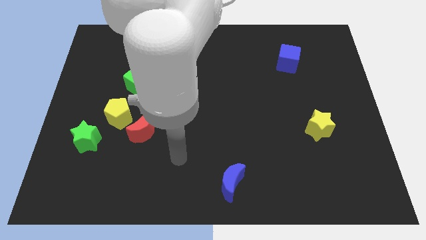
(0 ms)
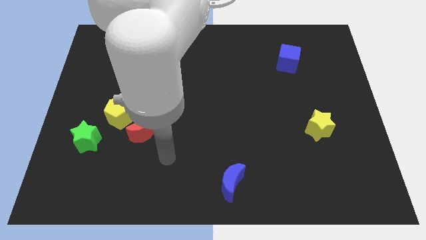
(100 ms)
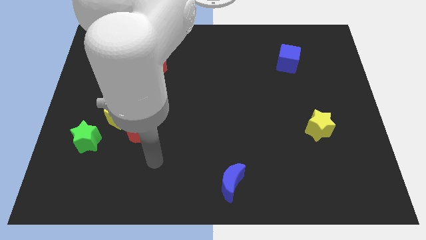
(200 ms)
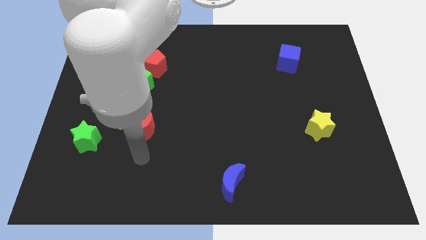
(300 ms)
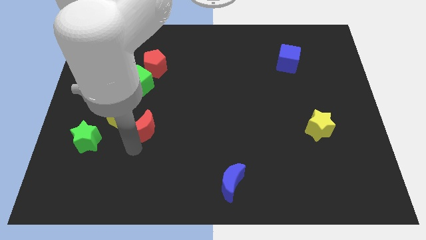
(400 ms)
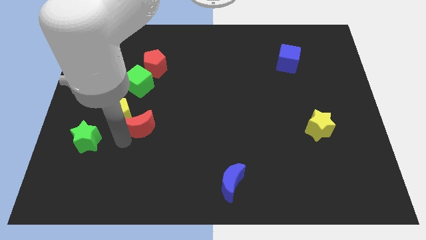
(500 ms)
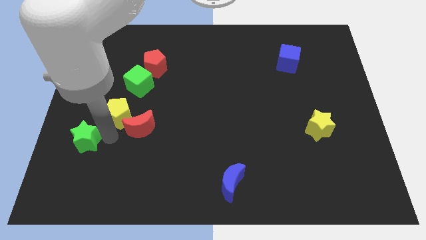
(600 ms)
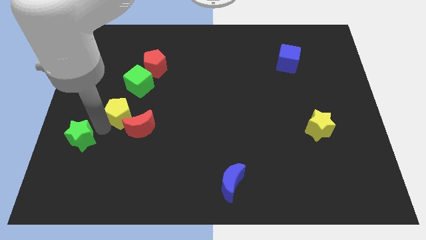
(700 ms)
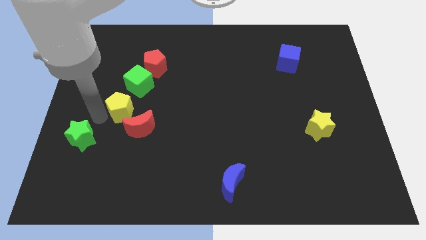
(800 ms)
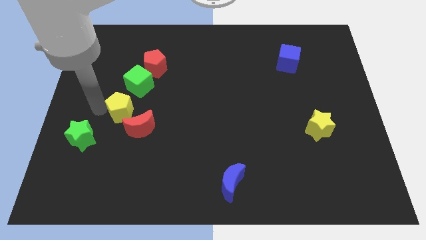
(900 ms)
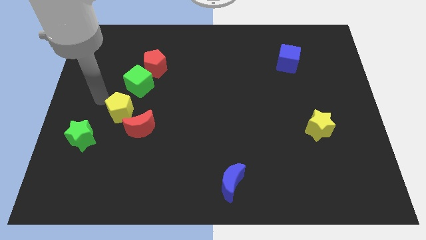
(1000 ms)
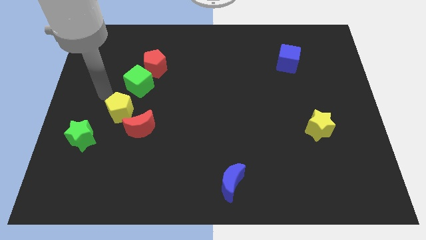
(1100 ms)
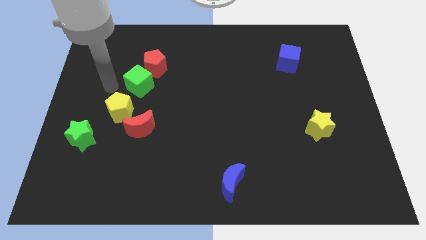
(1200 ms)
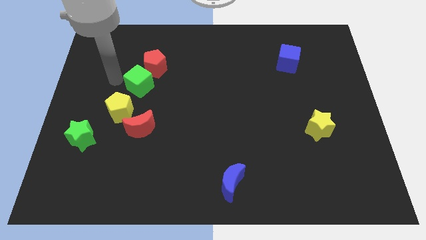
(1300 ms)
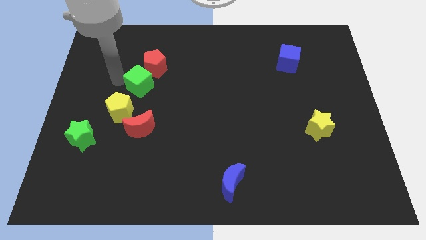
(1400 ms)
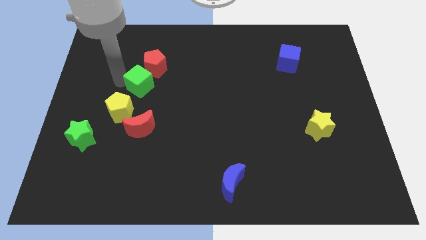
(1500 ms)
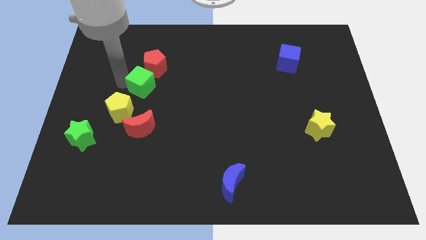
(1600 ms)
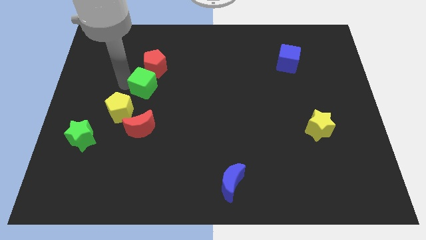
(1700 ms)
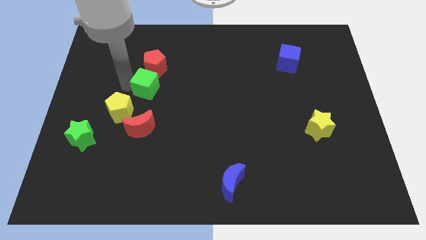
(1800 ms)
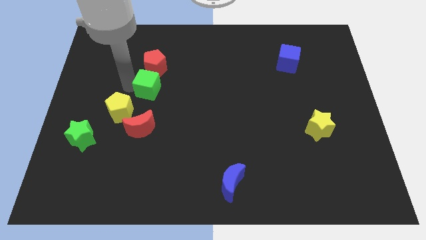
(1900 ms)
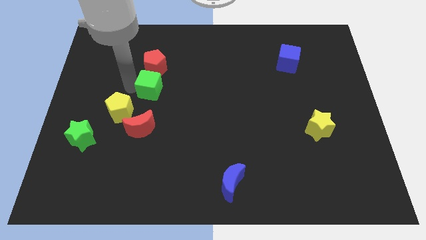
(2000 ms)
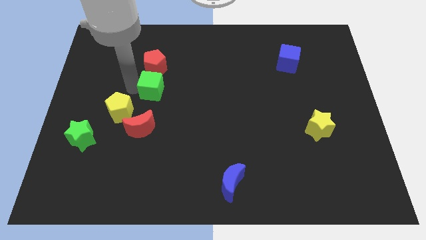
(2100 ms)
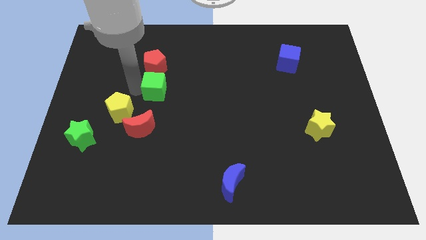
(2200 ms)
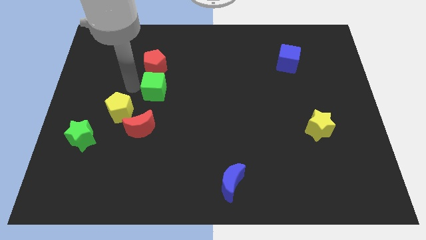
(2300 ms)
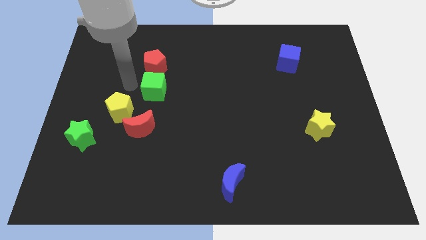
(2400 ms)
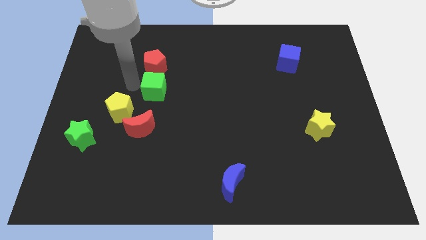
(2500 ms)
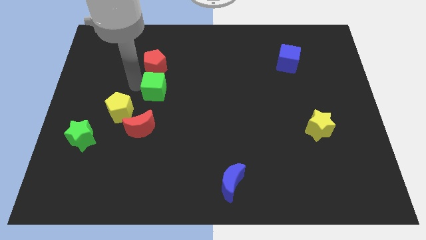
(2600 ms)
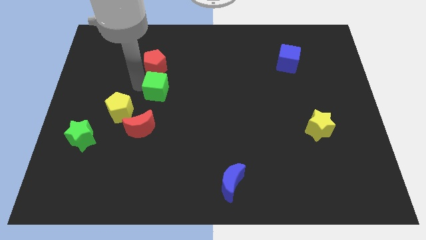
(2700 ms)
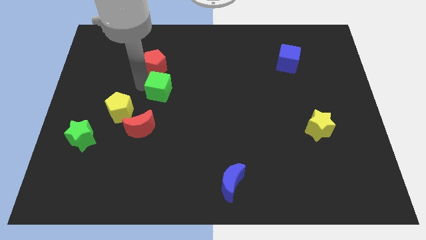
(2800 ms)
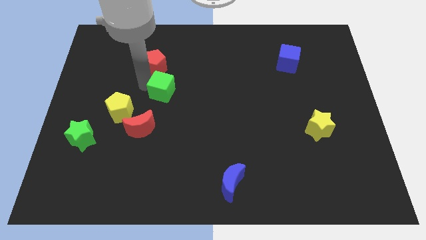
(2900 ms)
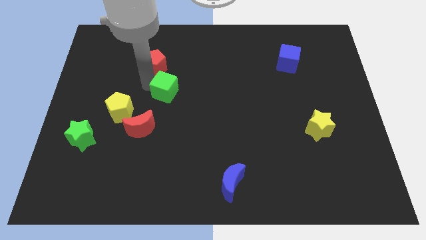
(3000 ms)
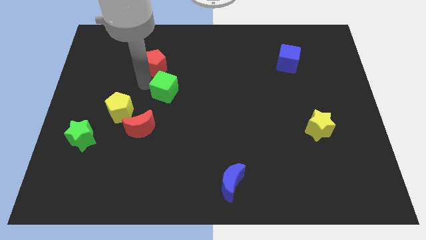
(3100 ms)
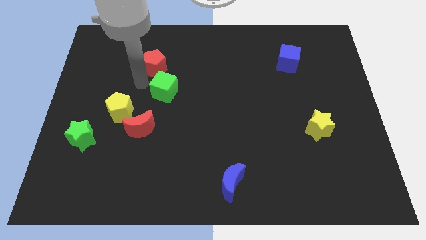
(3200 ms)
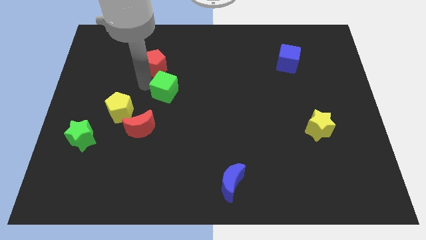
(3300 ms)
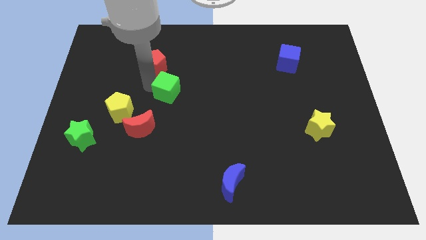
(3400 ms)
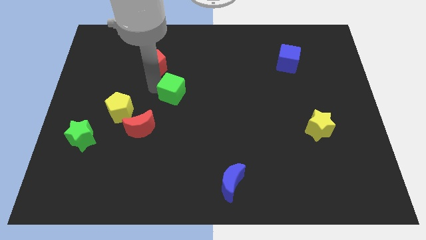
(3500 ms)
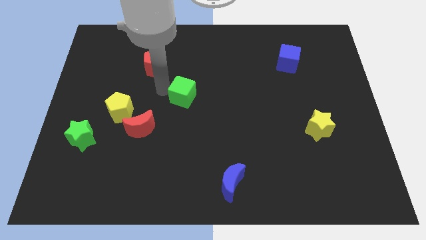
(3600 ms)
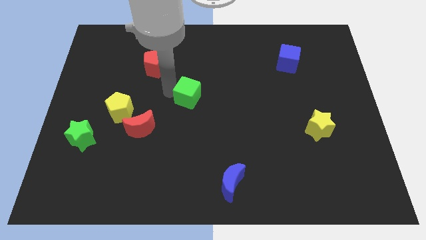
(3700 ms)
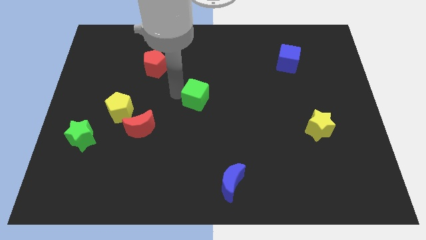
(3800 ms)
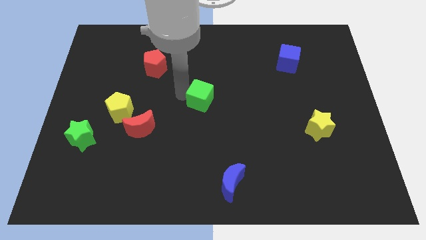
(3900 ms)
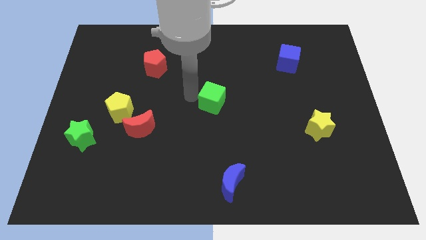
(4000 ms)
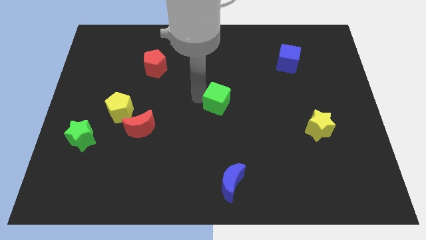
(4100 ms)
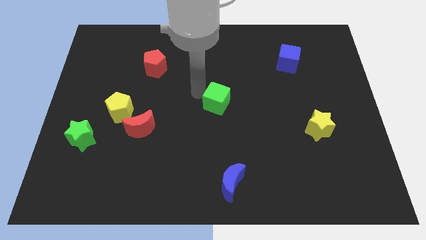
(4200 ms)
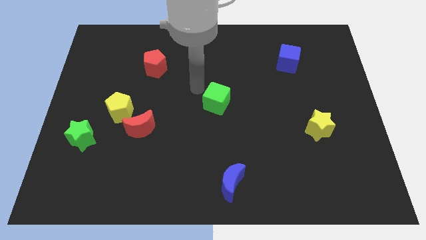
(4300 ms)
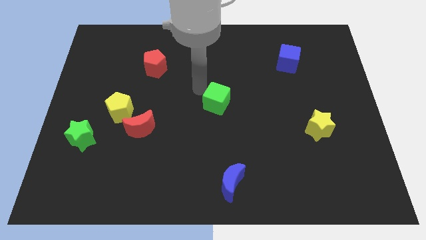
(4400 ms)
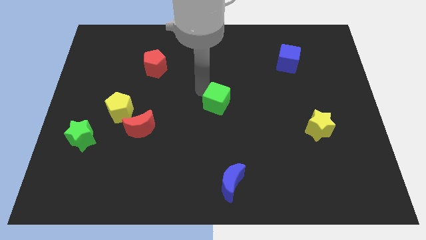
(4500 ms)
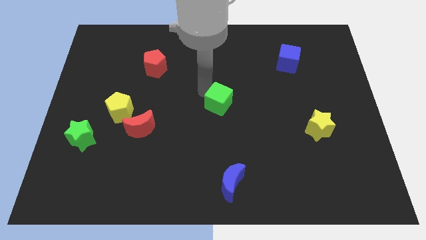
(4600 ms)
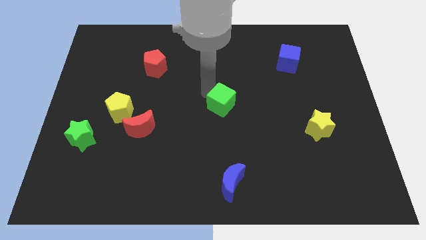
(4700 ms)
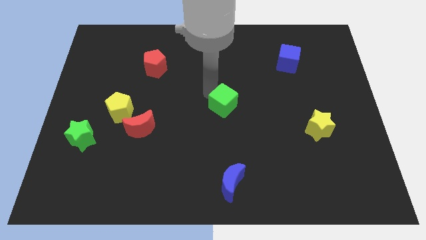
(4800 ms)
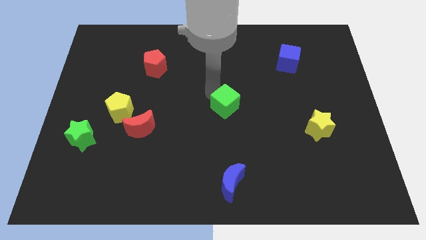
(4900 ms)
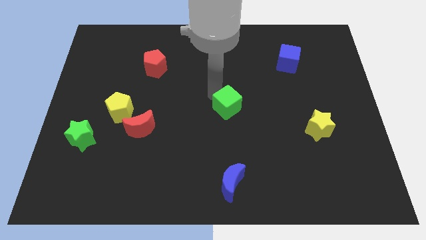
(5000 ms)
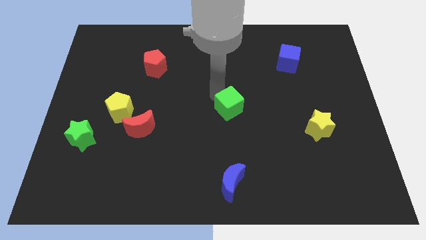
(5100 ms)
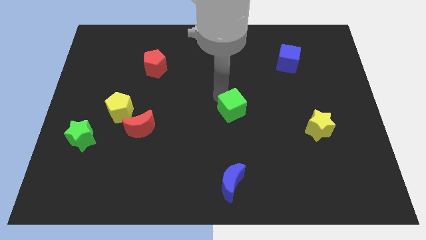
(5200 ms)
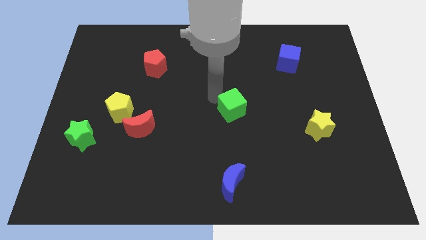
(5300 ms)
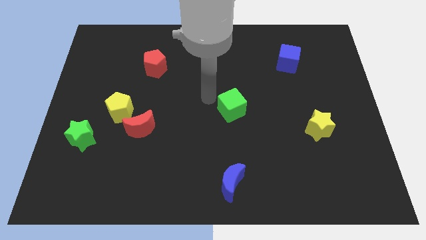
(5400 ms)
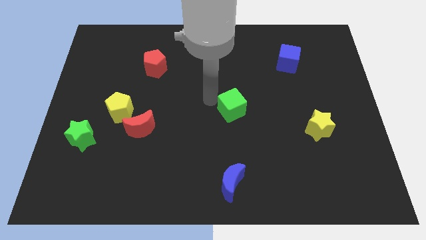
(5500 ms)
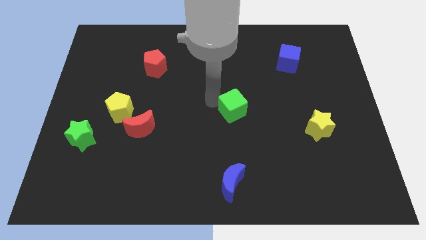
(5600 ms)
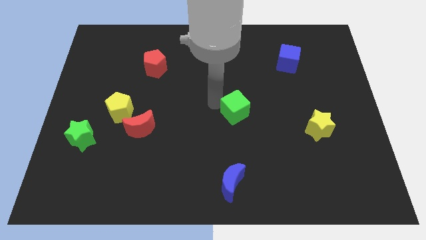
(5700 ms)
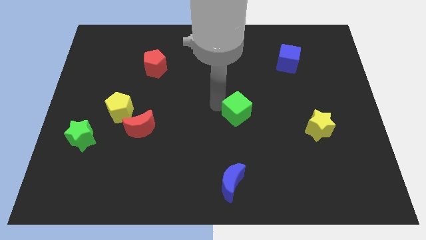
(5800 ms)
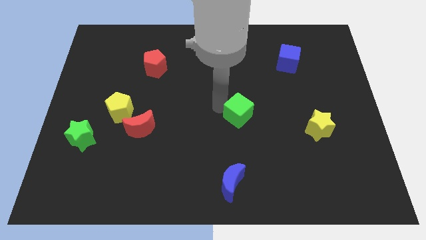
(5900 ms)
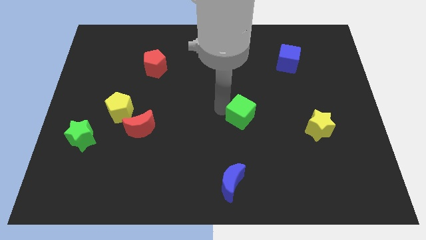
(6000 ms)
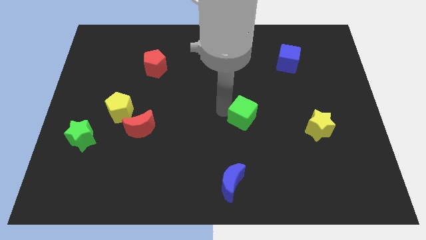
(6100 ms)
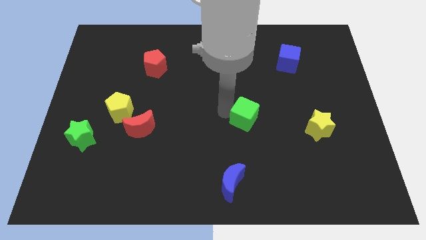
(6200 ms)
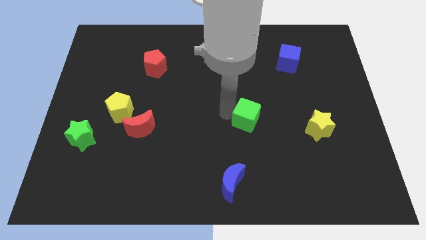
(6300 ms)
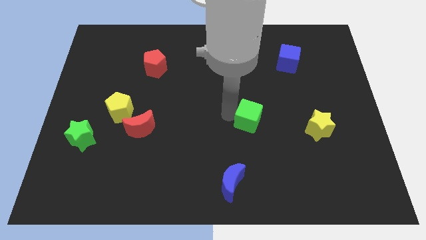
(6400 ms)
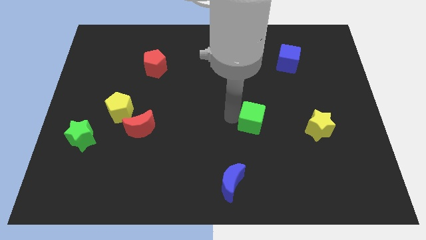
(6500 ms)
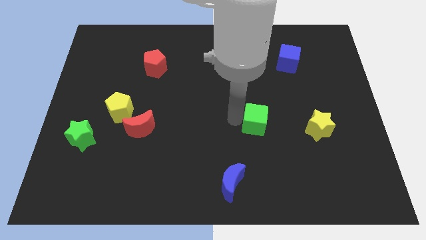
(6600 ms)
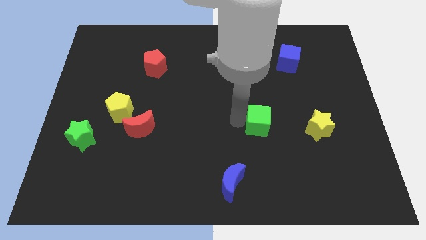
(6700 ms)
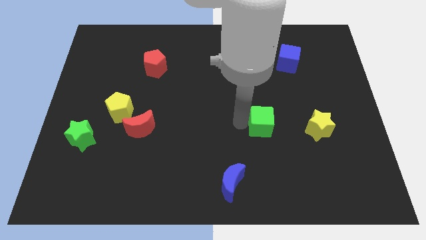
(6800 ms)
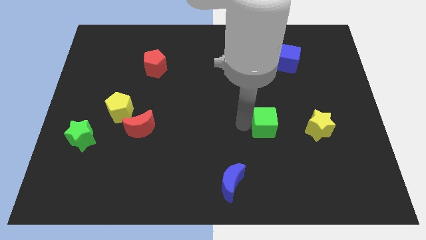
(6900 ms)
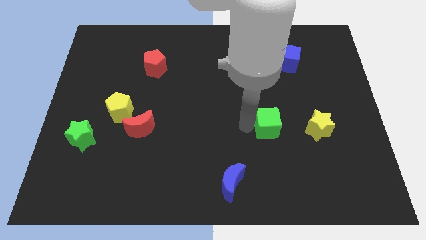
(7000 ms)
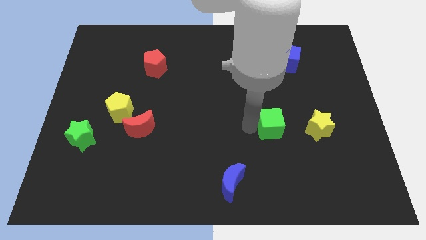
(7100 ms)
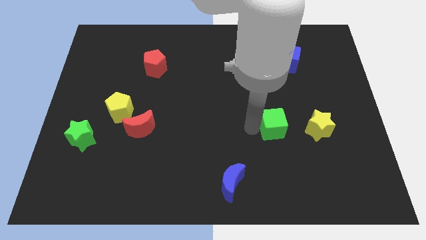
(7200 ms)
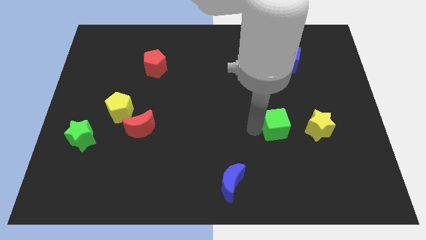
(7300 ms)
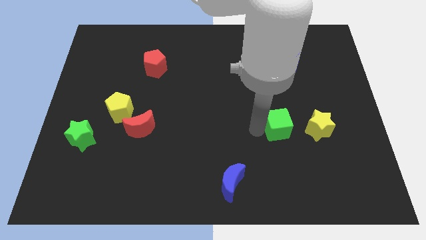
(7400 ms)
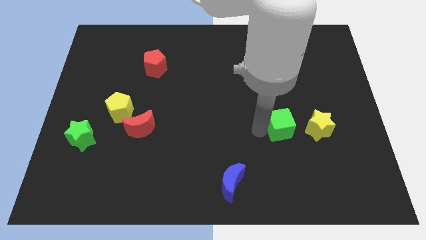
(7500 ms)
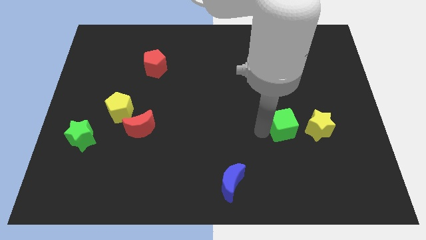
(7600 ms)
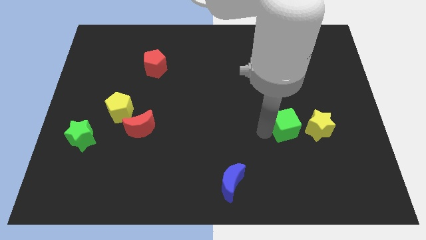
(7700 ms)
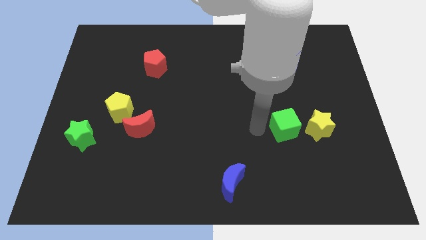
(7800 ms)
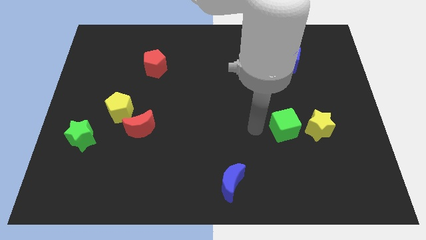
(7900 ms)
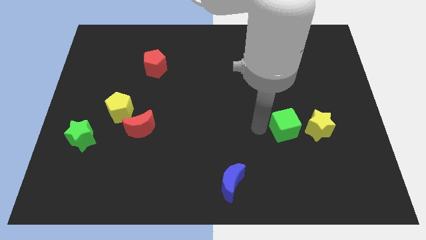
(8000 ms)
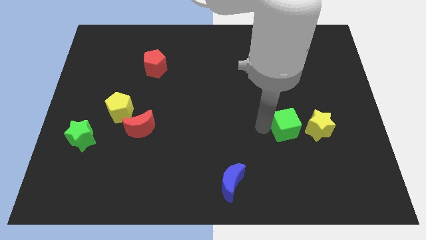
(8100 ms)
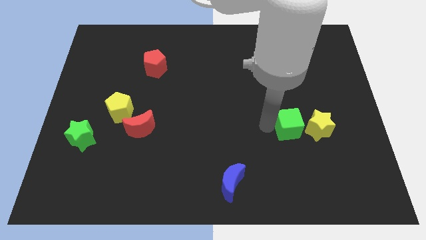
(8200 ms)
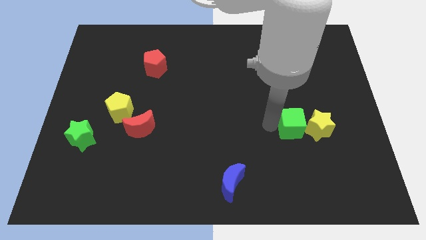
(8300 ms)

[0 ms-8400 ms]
push the green cube close to the yellow star
